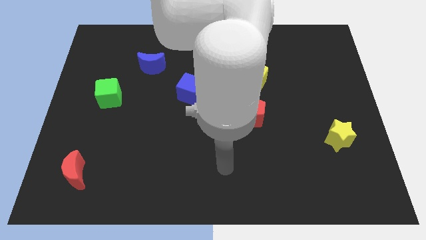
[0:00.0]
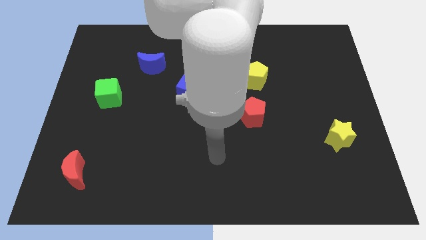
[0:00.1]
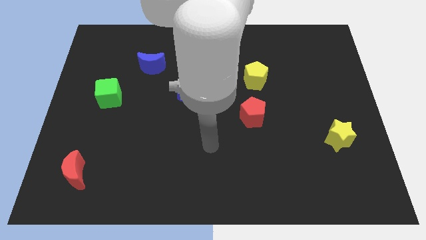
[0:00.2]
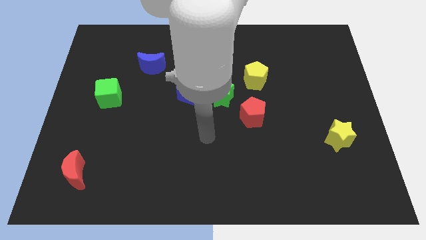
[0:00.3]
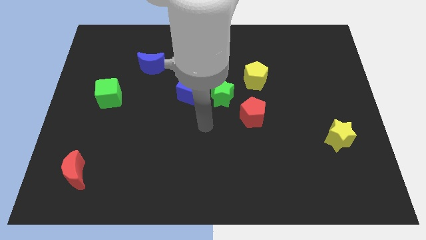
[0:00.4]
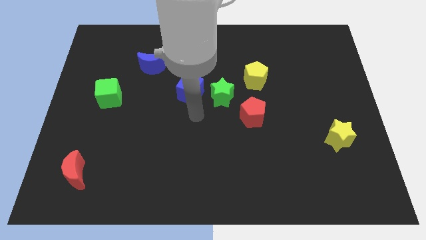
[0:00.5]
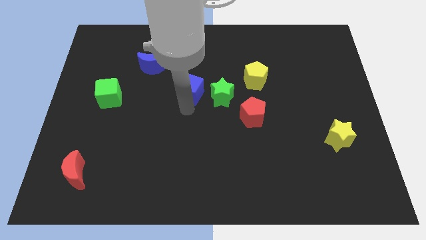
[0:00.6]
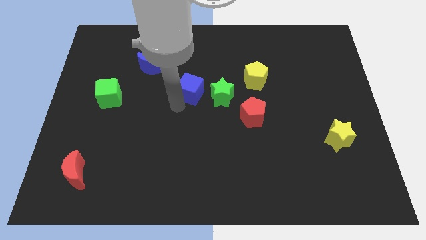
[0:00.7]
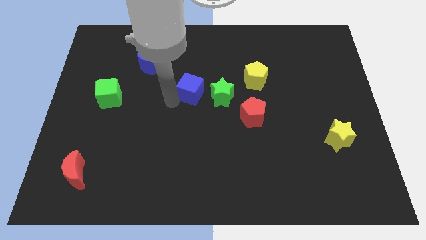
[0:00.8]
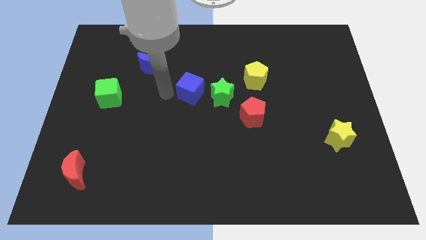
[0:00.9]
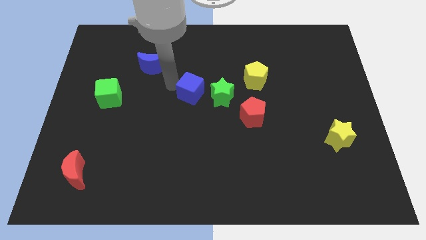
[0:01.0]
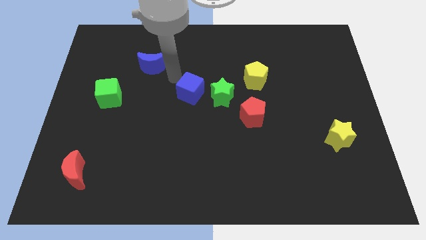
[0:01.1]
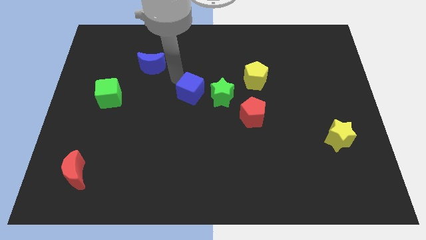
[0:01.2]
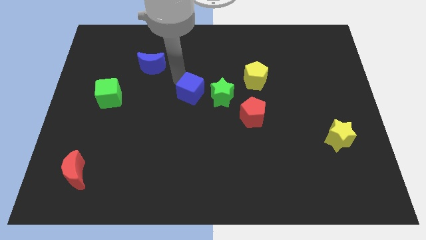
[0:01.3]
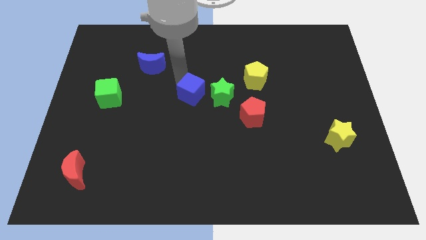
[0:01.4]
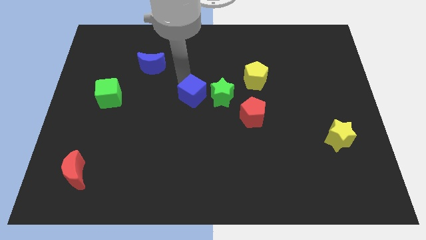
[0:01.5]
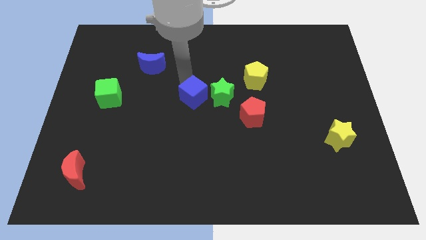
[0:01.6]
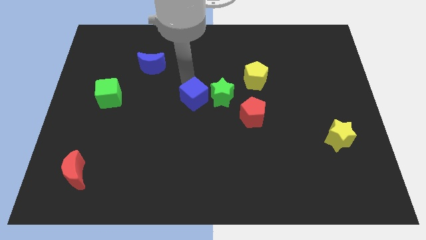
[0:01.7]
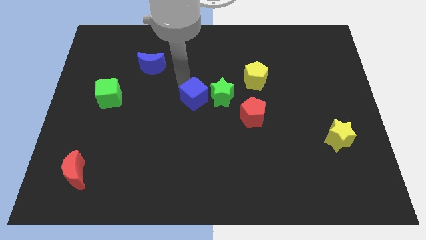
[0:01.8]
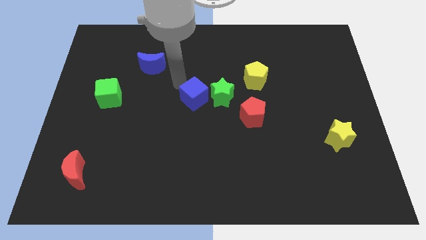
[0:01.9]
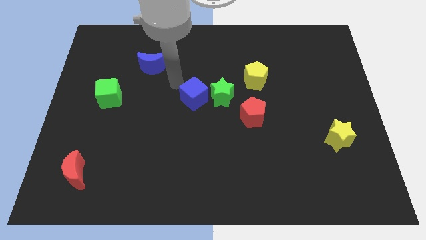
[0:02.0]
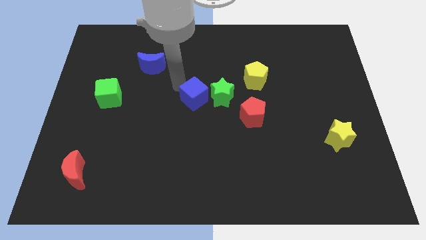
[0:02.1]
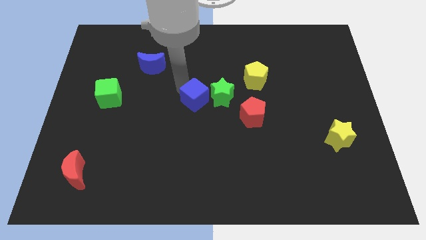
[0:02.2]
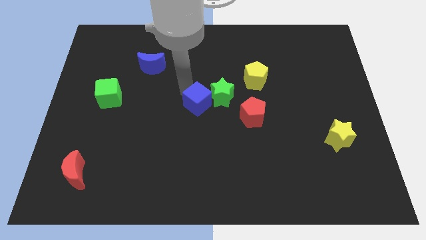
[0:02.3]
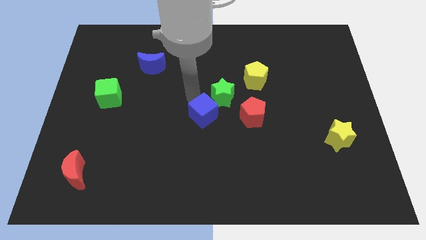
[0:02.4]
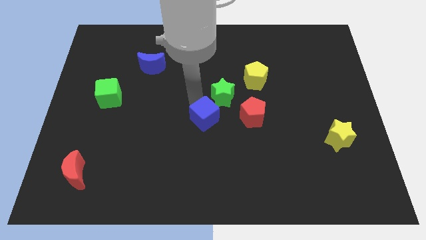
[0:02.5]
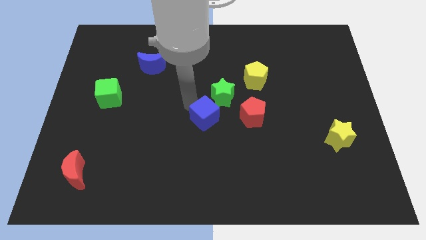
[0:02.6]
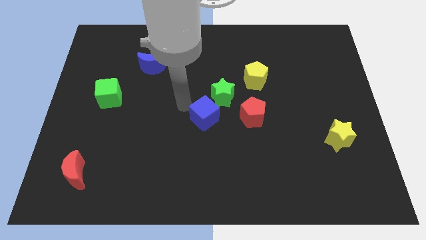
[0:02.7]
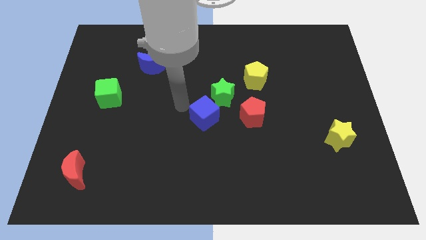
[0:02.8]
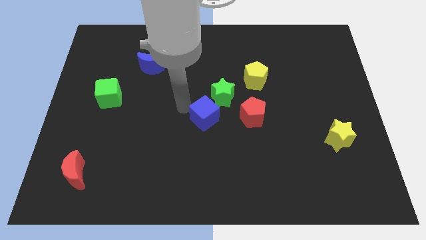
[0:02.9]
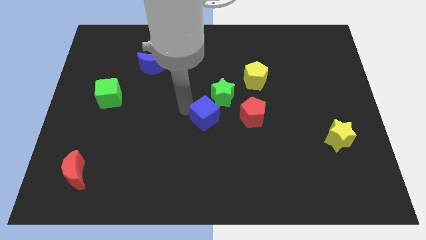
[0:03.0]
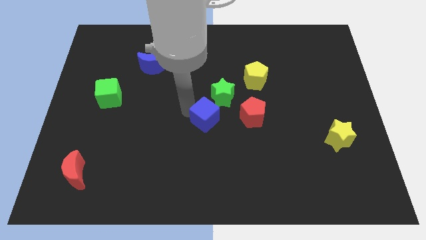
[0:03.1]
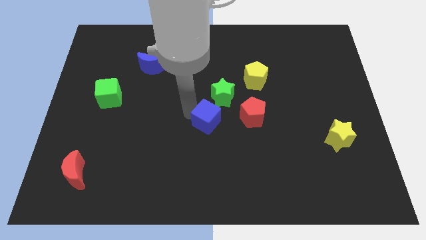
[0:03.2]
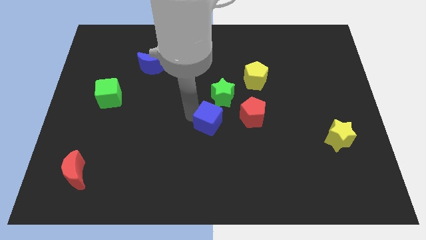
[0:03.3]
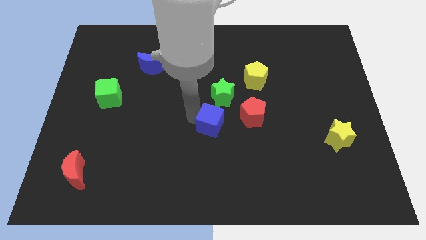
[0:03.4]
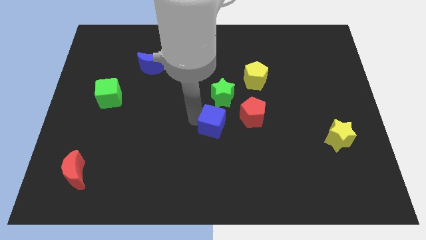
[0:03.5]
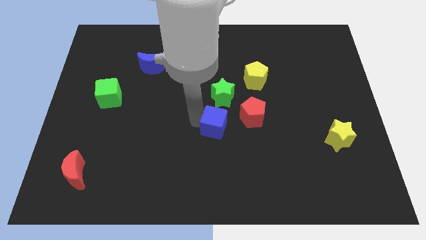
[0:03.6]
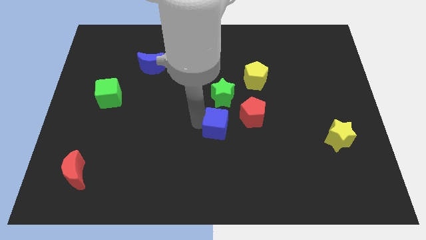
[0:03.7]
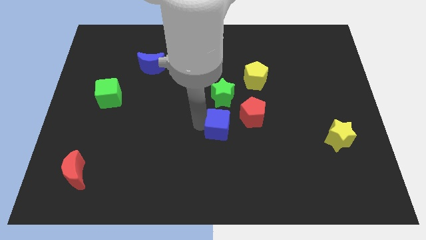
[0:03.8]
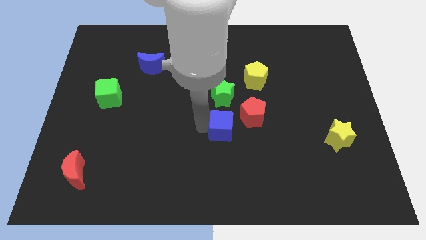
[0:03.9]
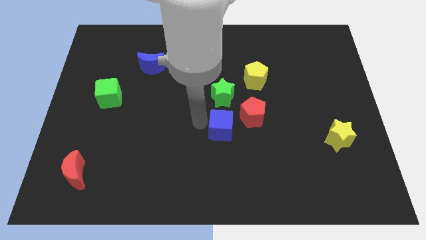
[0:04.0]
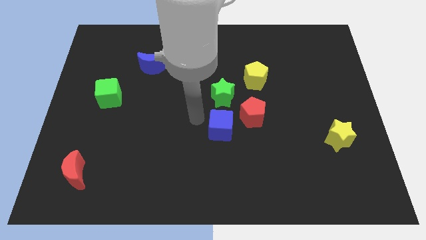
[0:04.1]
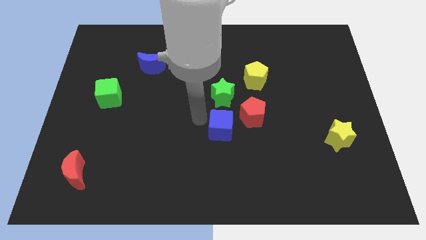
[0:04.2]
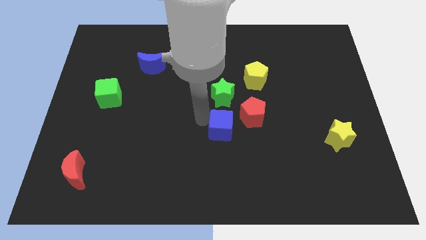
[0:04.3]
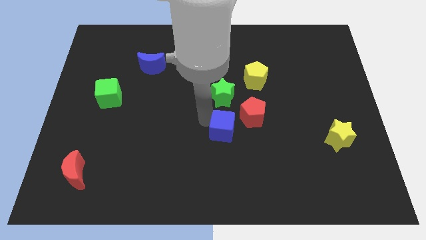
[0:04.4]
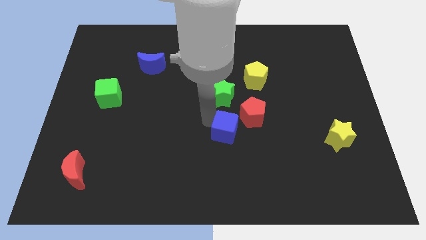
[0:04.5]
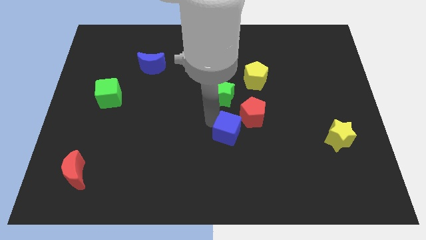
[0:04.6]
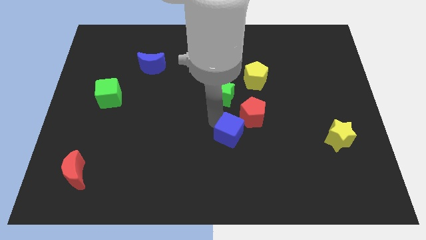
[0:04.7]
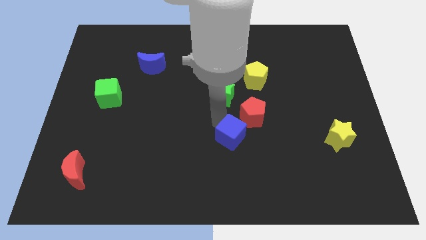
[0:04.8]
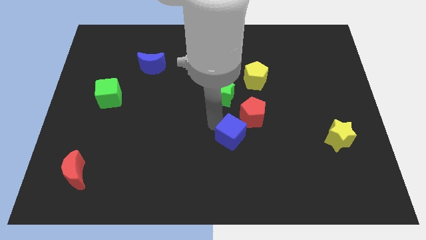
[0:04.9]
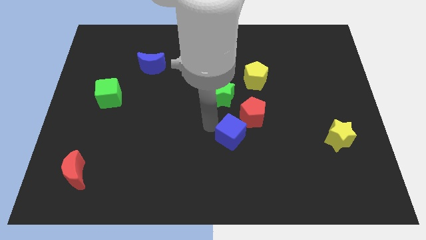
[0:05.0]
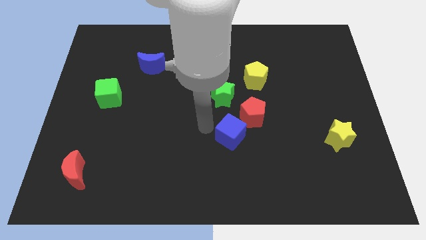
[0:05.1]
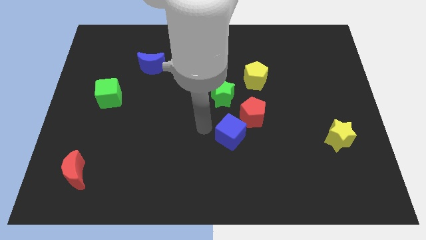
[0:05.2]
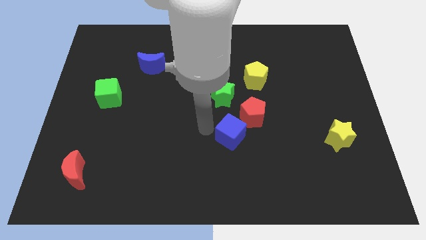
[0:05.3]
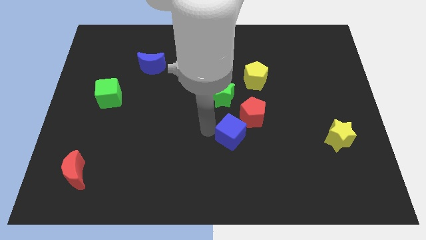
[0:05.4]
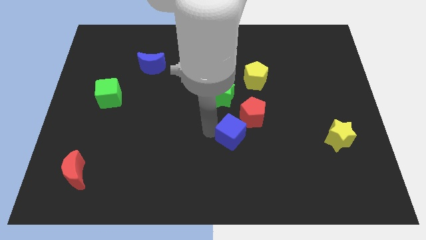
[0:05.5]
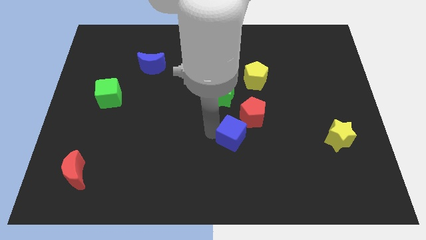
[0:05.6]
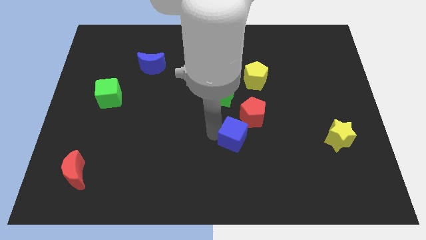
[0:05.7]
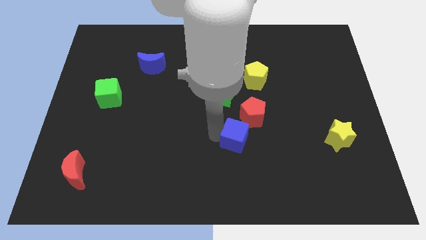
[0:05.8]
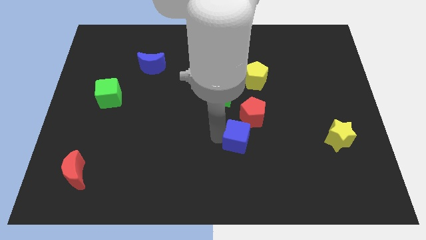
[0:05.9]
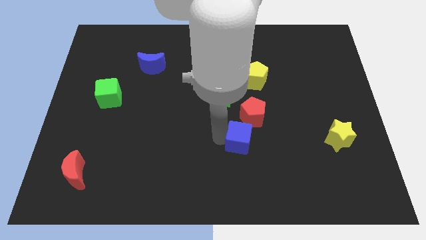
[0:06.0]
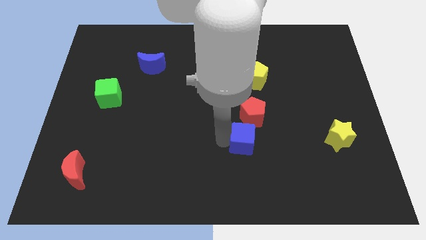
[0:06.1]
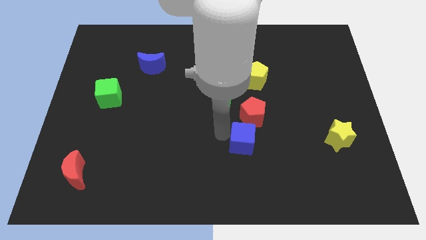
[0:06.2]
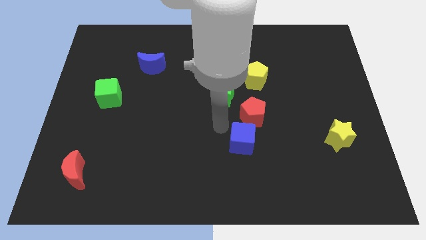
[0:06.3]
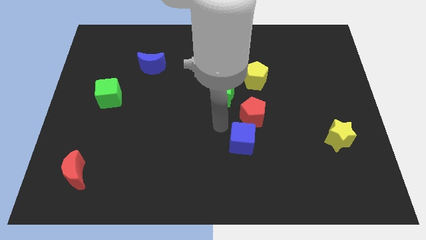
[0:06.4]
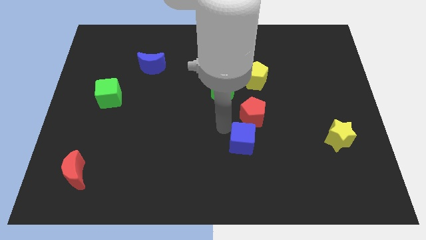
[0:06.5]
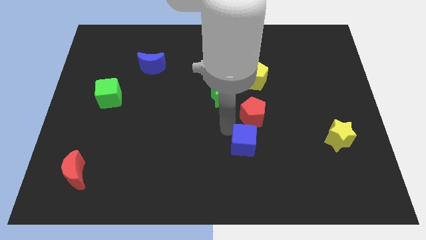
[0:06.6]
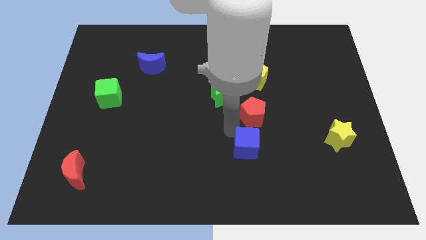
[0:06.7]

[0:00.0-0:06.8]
push the blue cube downwards and to the right

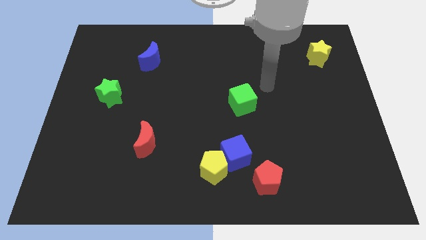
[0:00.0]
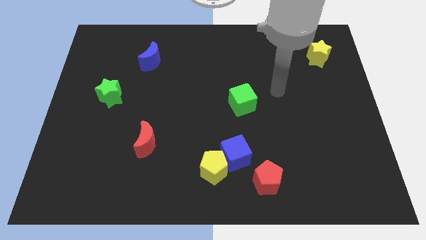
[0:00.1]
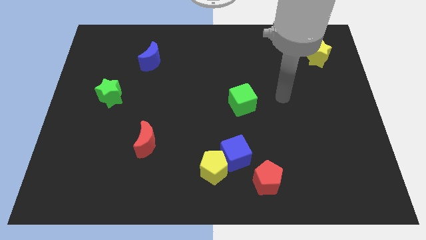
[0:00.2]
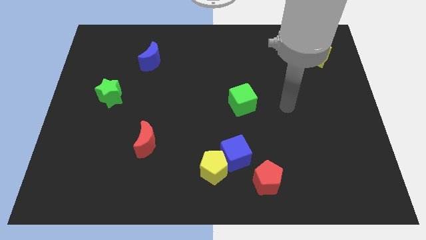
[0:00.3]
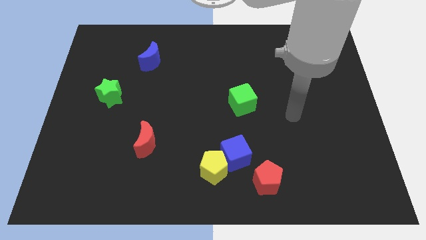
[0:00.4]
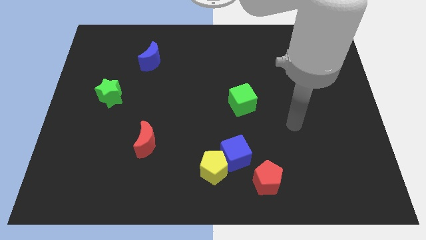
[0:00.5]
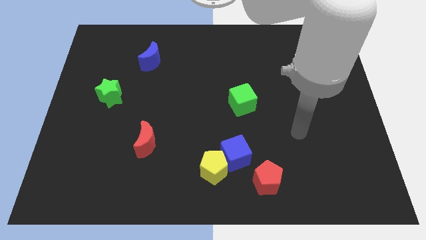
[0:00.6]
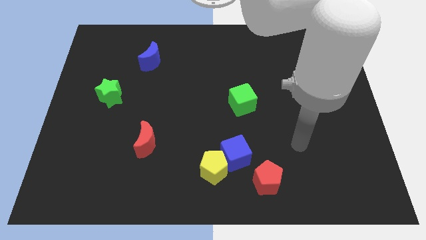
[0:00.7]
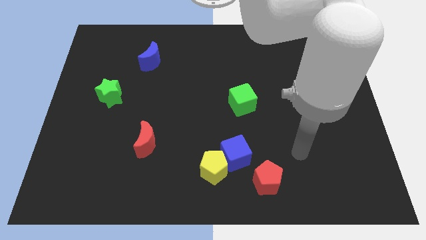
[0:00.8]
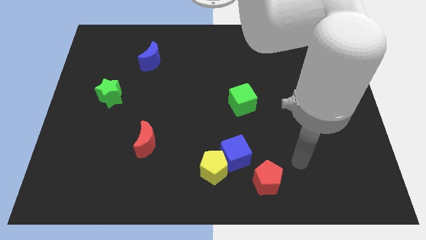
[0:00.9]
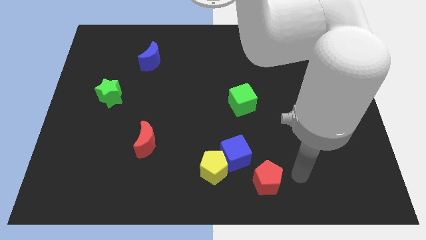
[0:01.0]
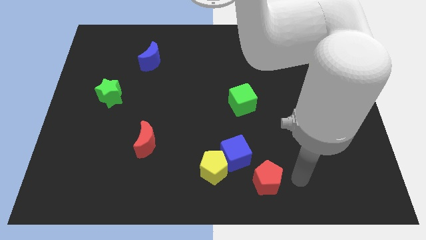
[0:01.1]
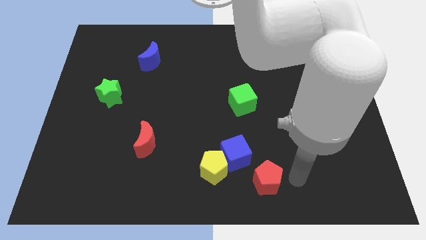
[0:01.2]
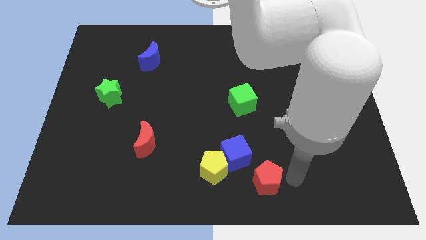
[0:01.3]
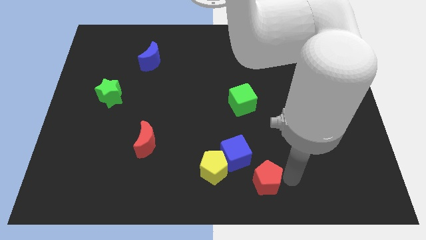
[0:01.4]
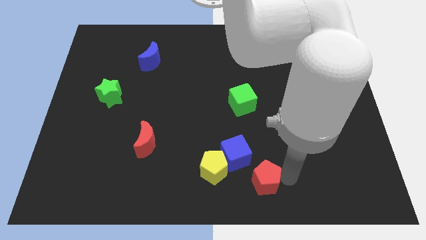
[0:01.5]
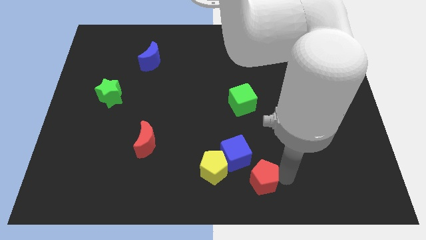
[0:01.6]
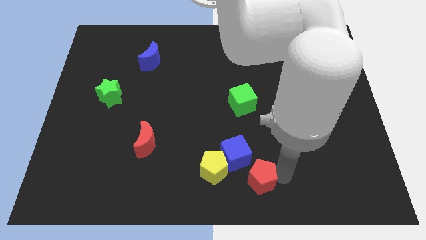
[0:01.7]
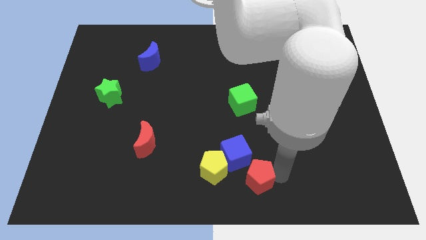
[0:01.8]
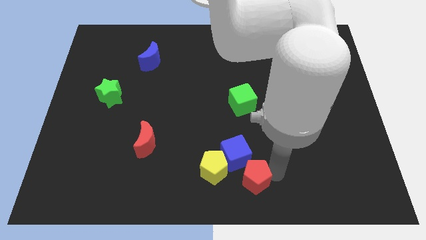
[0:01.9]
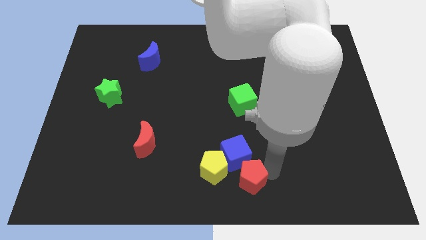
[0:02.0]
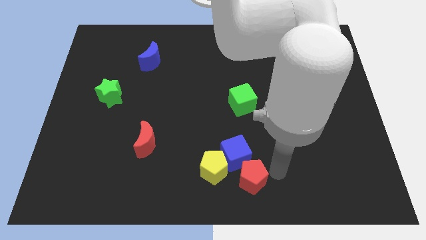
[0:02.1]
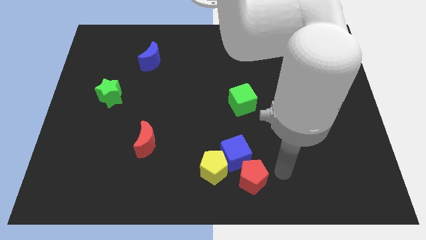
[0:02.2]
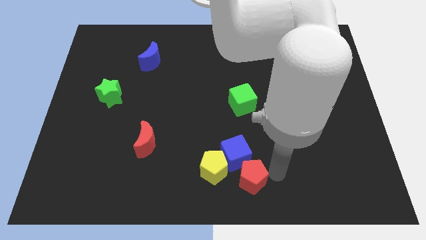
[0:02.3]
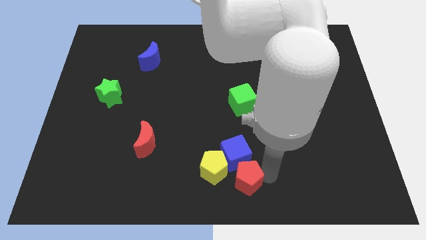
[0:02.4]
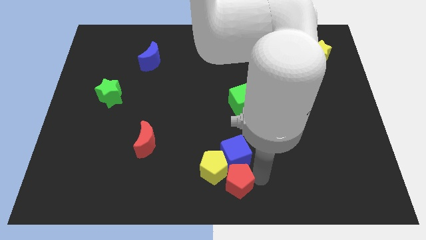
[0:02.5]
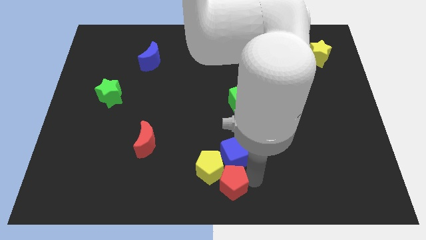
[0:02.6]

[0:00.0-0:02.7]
slide the red pentagon a little left
